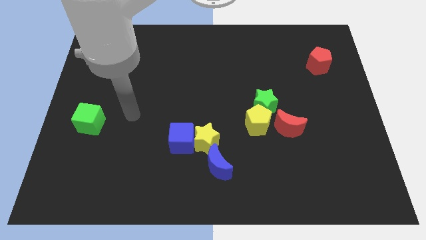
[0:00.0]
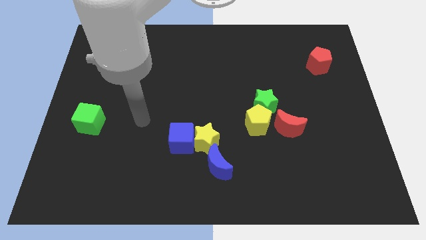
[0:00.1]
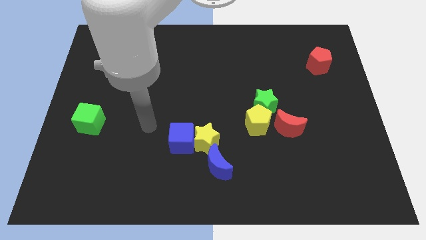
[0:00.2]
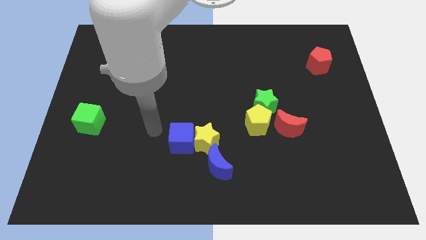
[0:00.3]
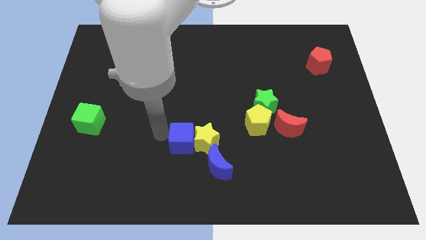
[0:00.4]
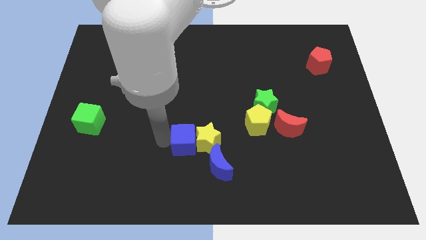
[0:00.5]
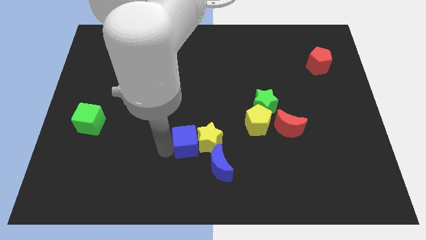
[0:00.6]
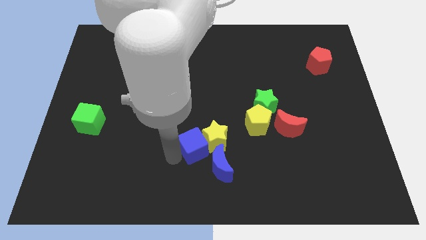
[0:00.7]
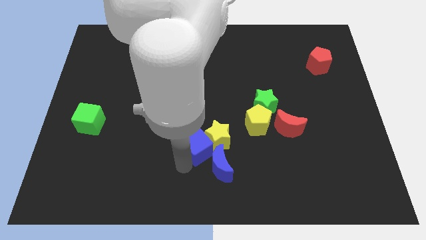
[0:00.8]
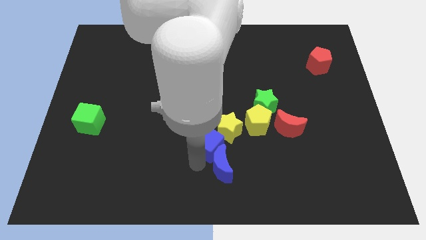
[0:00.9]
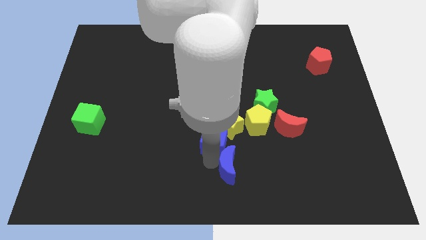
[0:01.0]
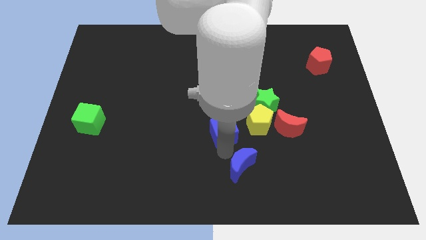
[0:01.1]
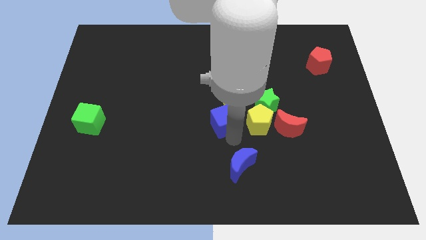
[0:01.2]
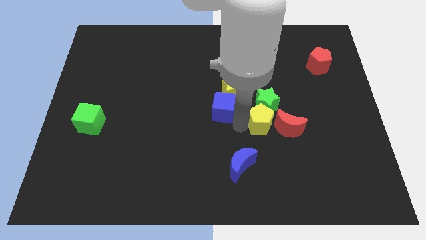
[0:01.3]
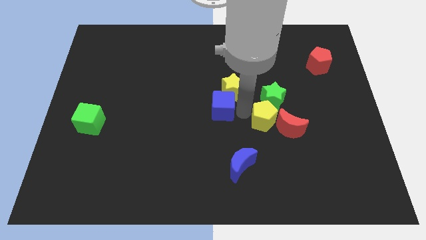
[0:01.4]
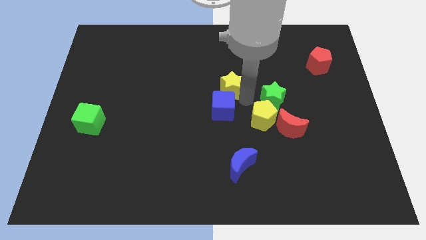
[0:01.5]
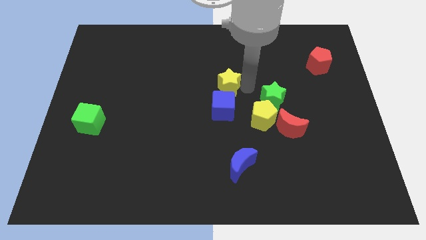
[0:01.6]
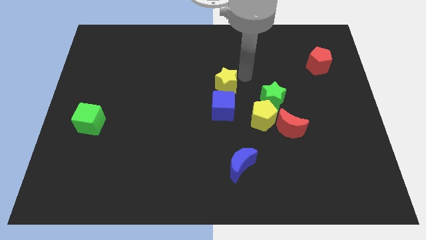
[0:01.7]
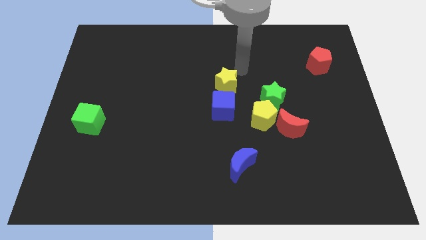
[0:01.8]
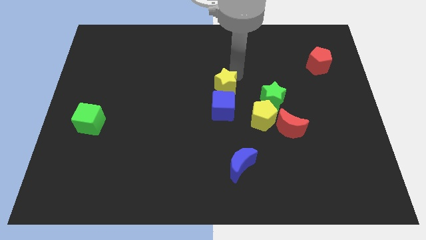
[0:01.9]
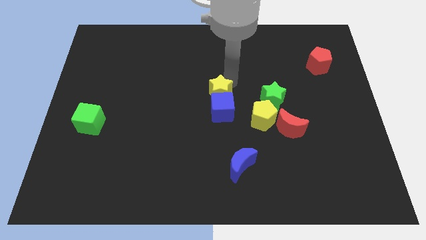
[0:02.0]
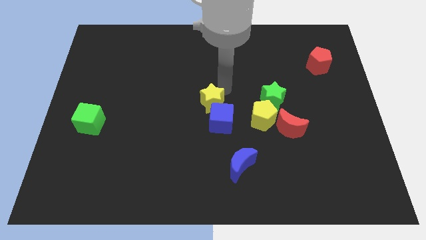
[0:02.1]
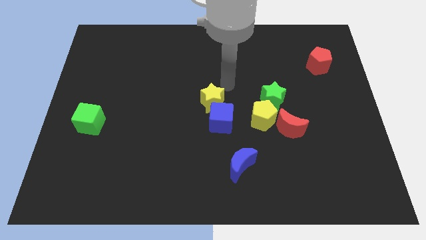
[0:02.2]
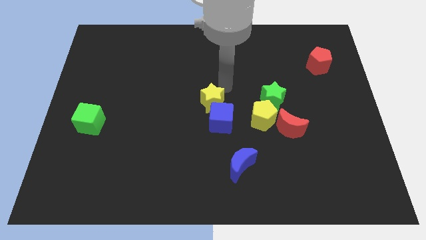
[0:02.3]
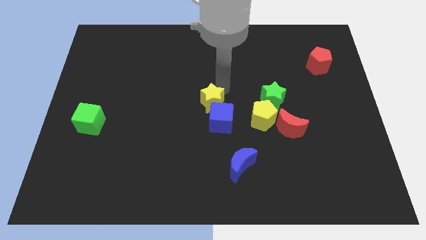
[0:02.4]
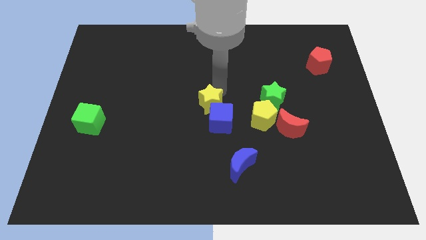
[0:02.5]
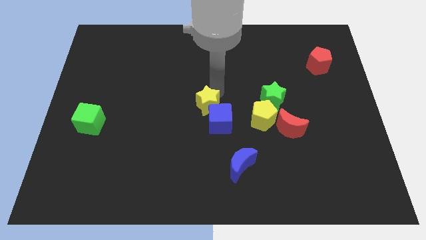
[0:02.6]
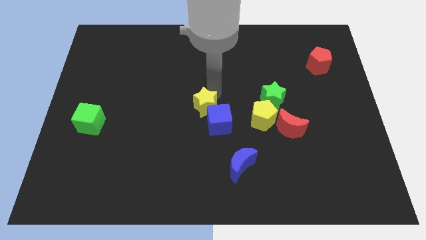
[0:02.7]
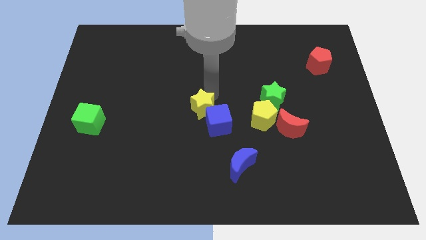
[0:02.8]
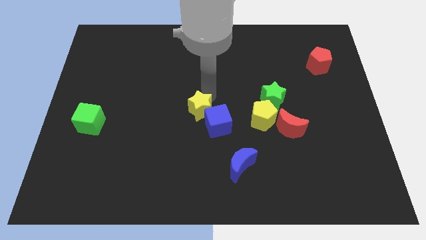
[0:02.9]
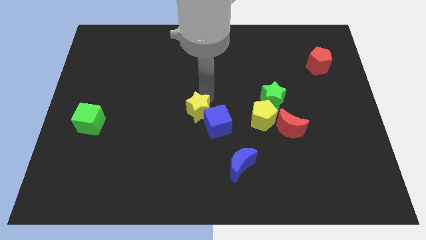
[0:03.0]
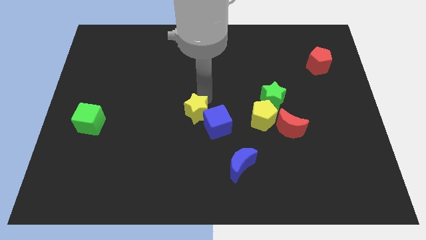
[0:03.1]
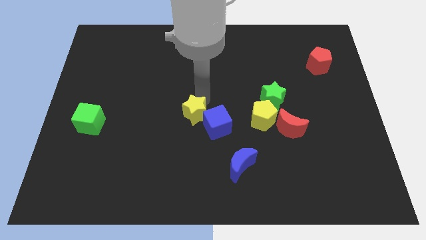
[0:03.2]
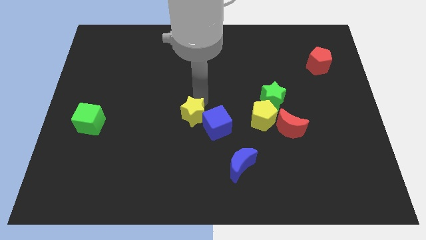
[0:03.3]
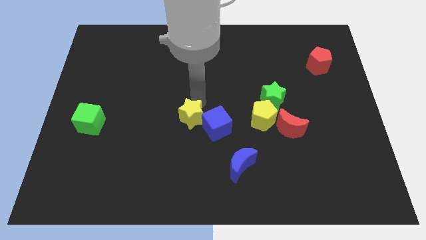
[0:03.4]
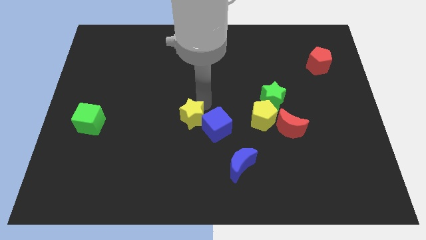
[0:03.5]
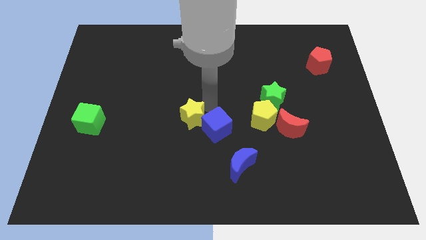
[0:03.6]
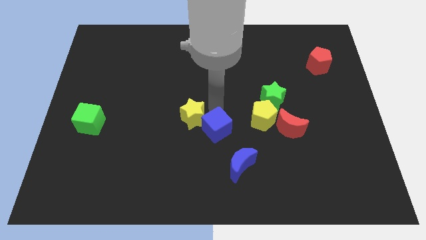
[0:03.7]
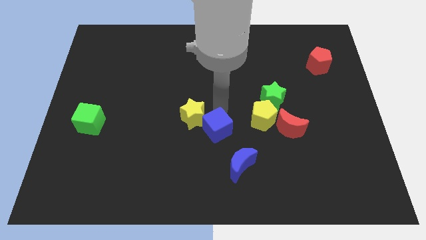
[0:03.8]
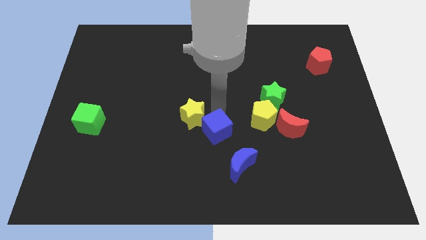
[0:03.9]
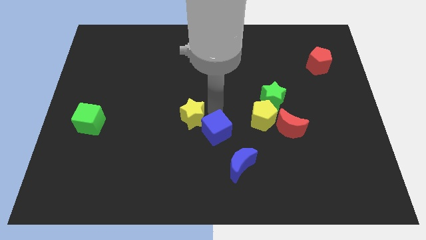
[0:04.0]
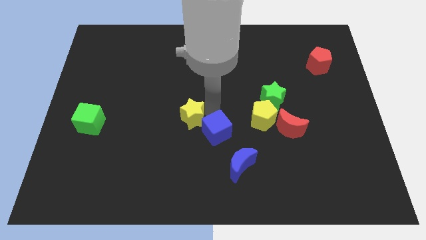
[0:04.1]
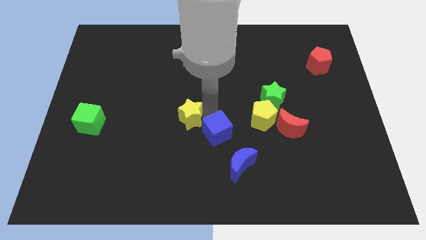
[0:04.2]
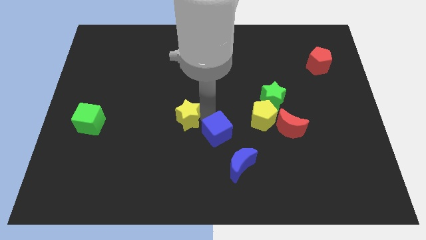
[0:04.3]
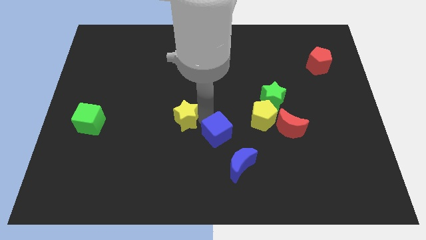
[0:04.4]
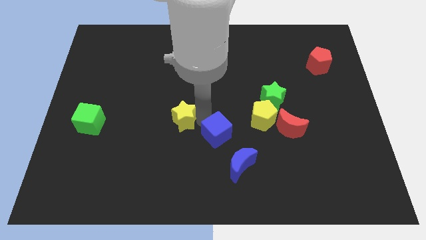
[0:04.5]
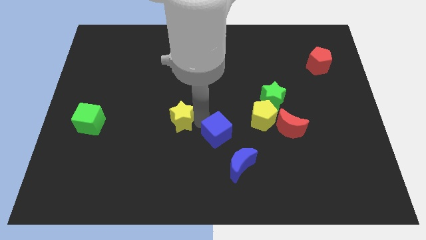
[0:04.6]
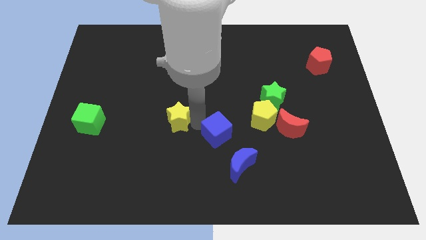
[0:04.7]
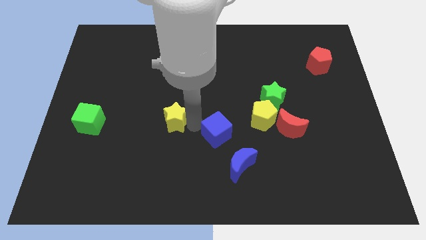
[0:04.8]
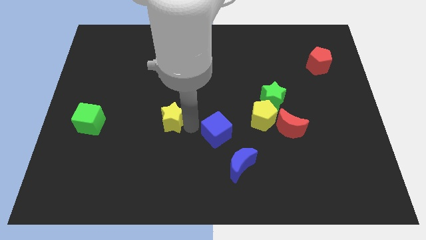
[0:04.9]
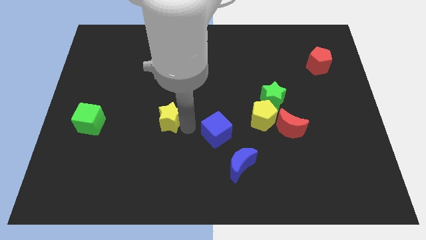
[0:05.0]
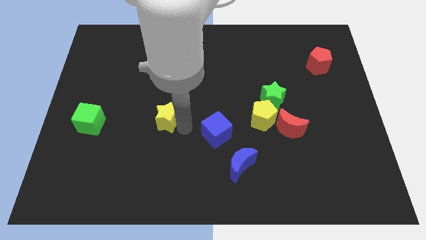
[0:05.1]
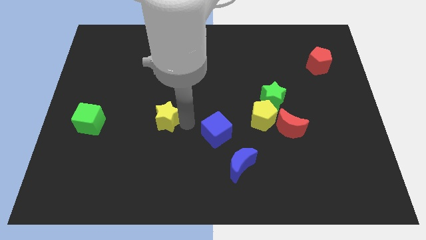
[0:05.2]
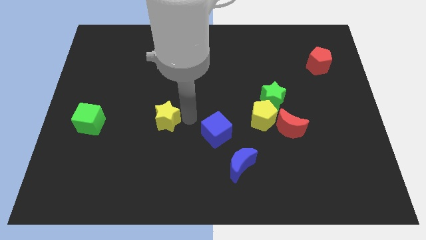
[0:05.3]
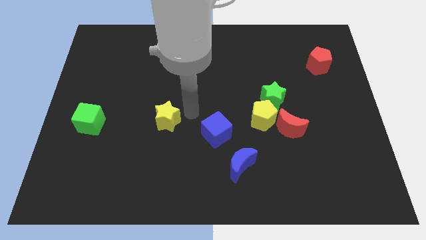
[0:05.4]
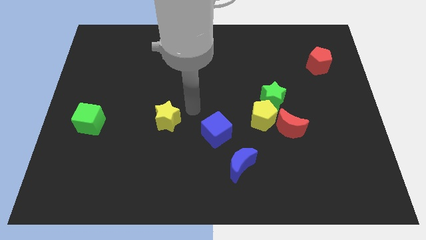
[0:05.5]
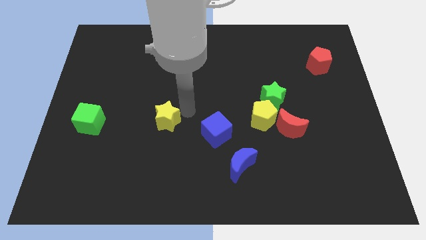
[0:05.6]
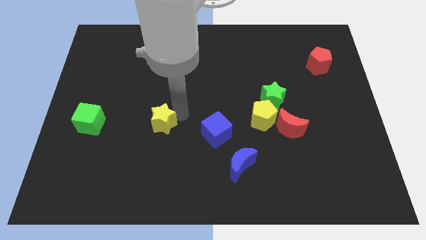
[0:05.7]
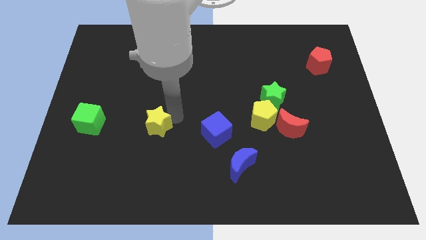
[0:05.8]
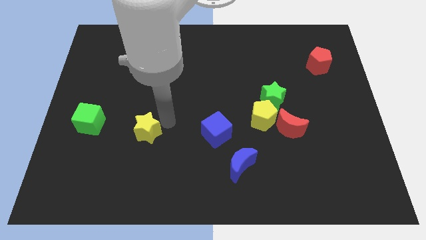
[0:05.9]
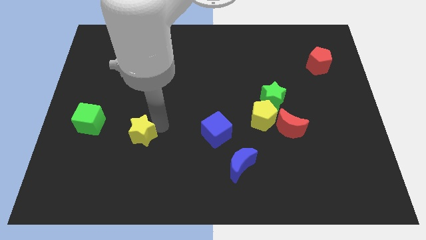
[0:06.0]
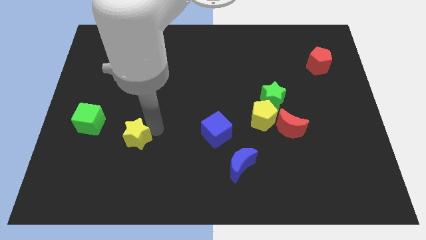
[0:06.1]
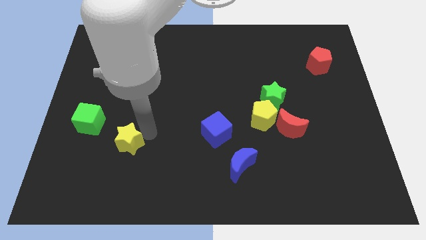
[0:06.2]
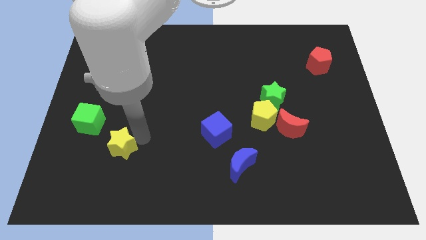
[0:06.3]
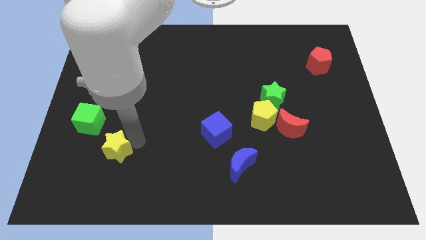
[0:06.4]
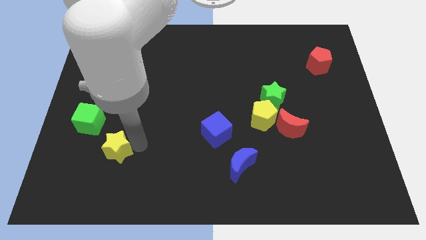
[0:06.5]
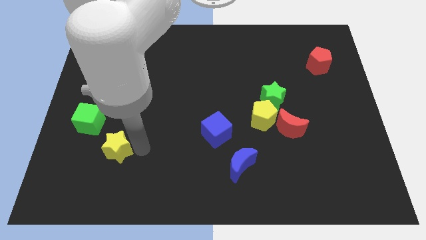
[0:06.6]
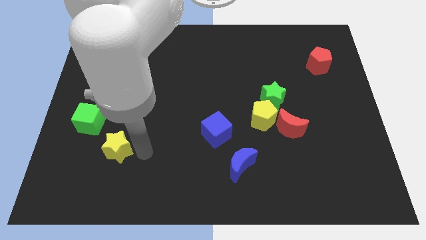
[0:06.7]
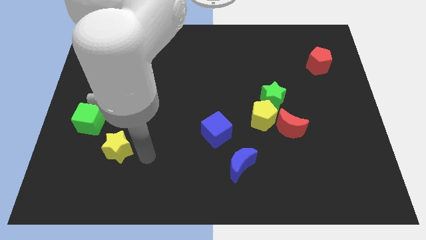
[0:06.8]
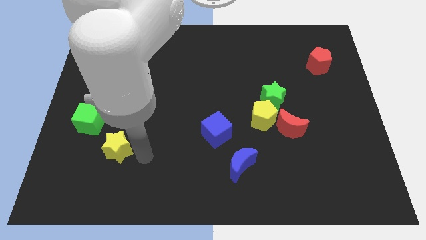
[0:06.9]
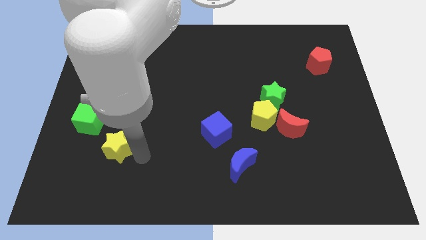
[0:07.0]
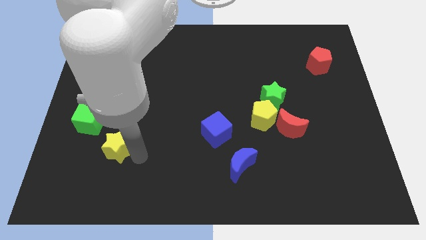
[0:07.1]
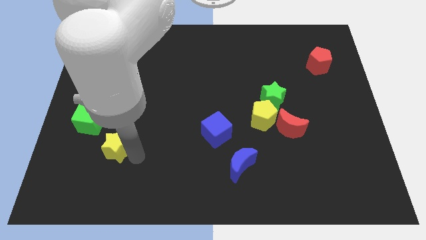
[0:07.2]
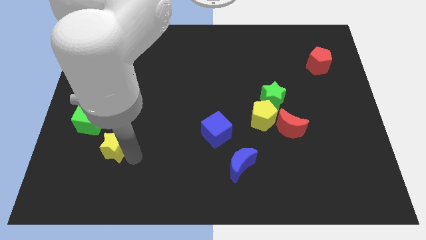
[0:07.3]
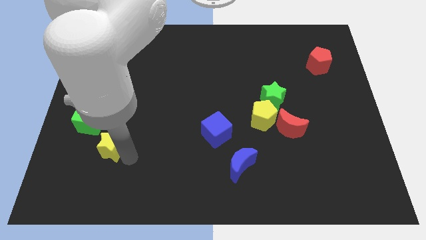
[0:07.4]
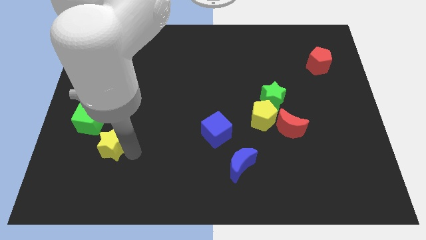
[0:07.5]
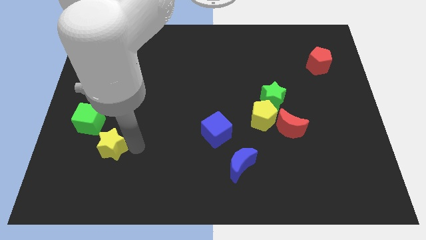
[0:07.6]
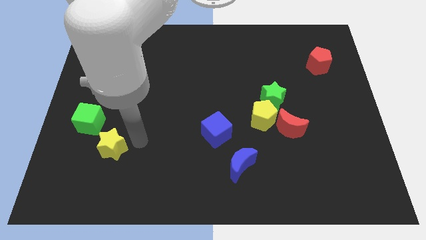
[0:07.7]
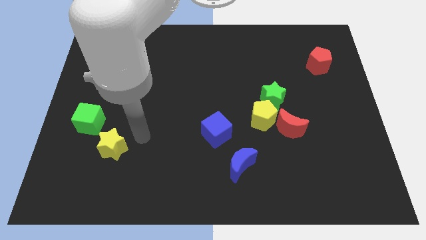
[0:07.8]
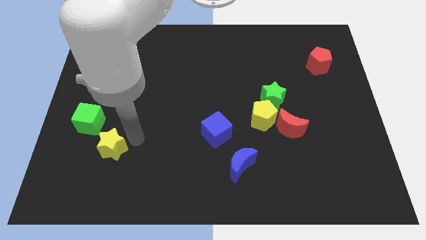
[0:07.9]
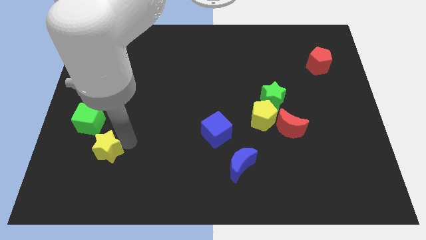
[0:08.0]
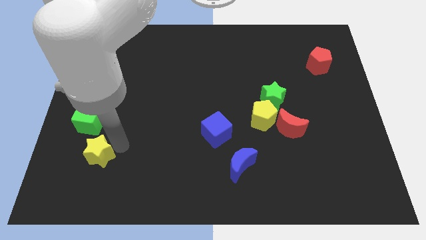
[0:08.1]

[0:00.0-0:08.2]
move the yellow star below the green cube
